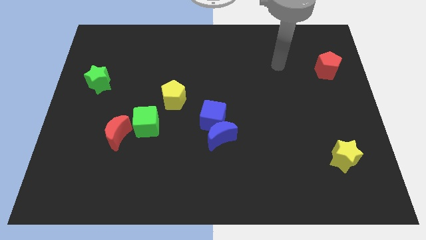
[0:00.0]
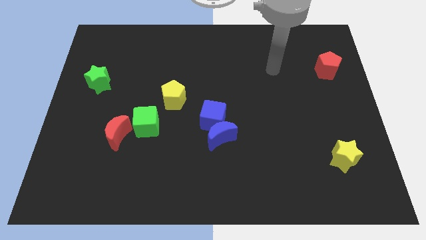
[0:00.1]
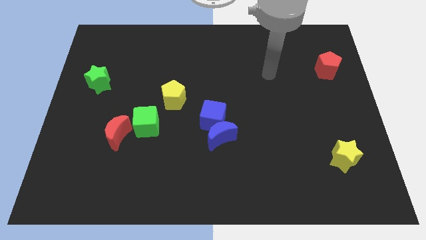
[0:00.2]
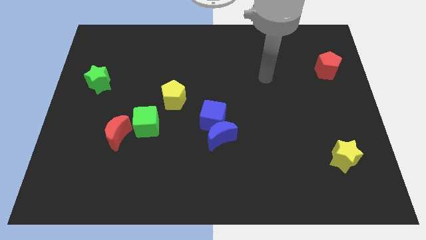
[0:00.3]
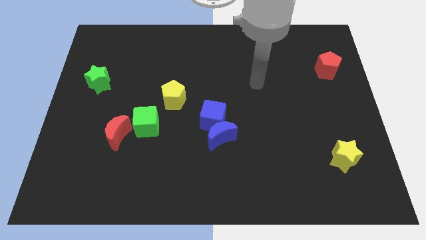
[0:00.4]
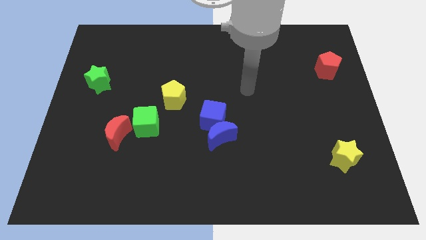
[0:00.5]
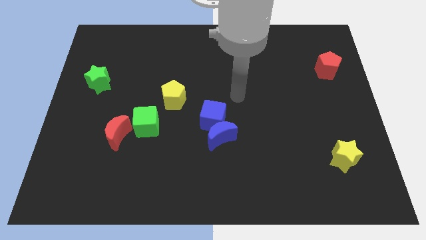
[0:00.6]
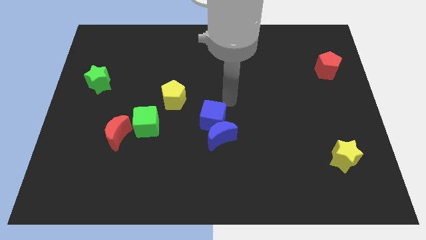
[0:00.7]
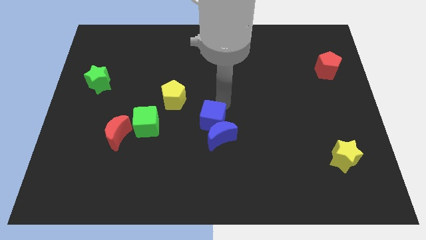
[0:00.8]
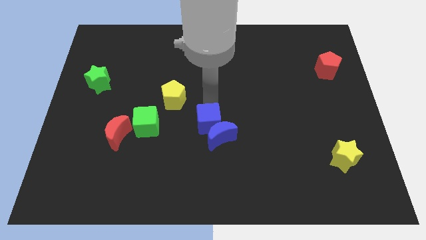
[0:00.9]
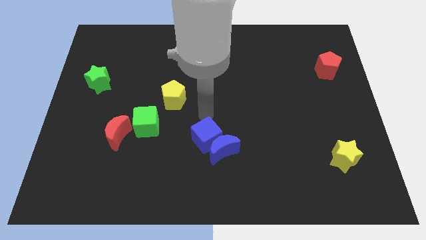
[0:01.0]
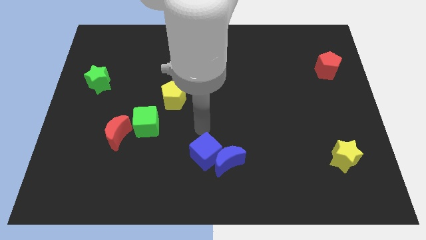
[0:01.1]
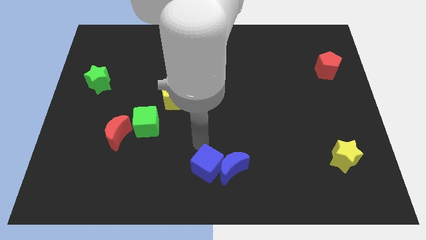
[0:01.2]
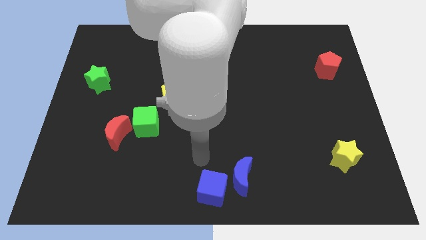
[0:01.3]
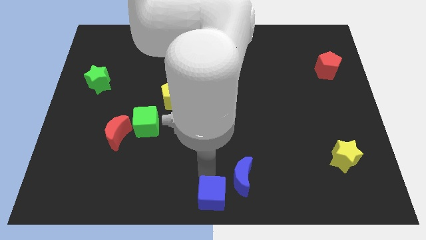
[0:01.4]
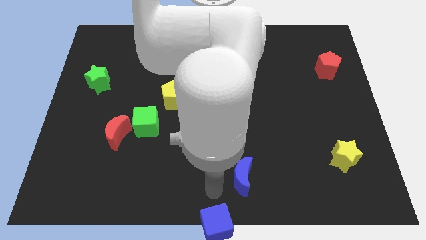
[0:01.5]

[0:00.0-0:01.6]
separate the blue moon from the blue cube

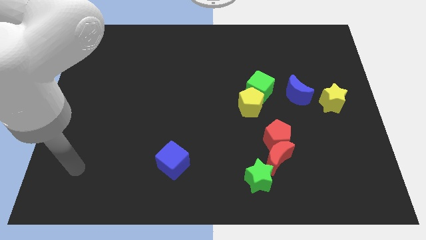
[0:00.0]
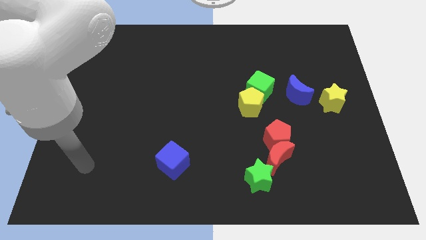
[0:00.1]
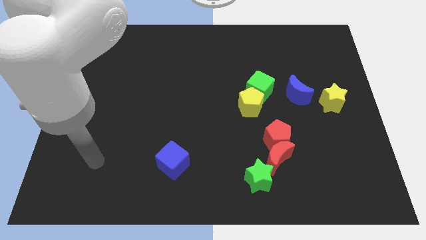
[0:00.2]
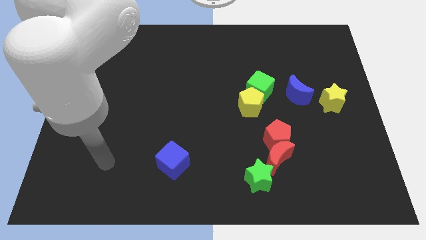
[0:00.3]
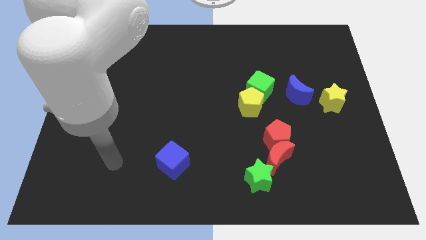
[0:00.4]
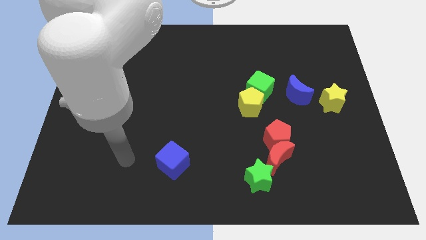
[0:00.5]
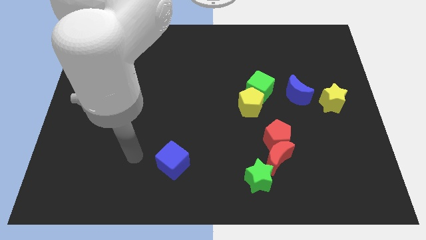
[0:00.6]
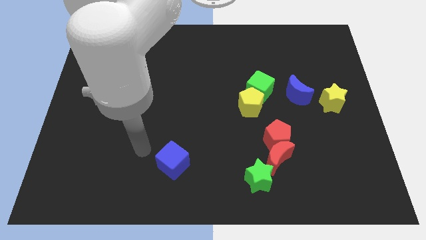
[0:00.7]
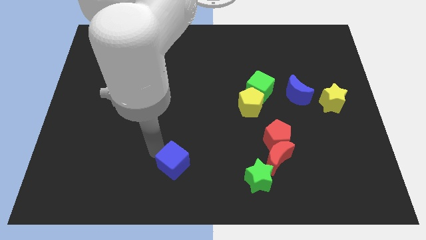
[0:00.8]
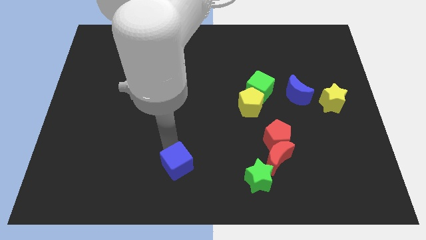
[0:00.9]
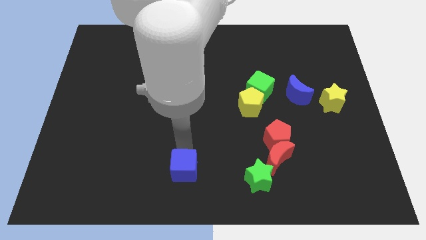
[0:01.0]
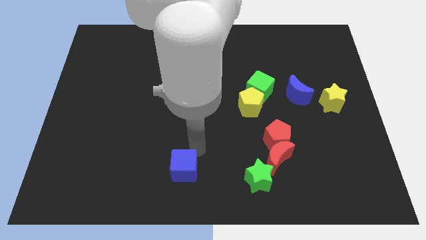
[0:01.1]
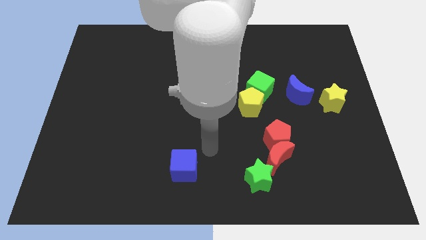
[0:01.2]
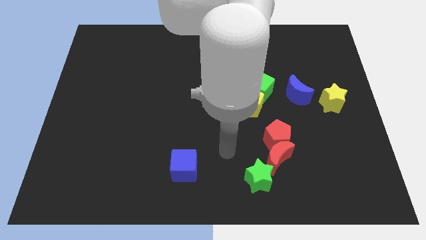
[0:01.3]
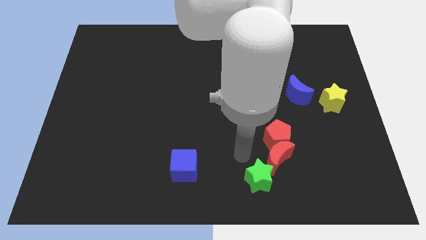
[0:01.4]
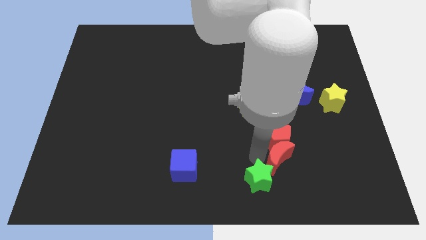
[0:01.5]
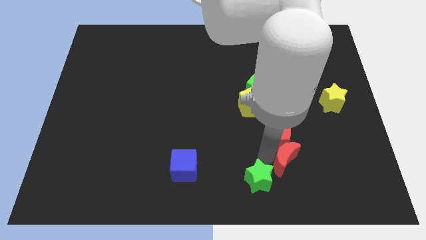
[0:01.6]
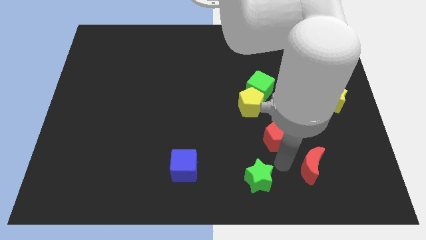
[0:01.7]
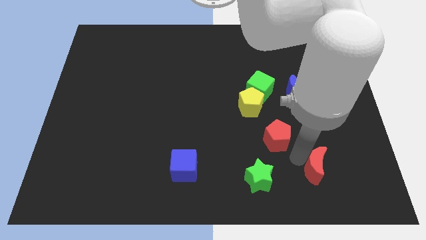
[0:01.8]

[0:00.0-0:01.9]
pull the red pentagon apart from the red moon

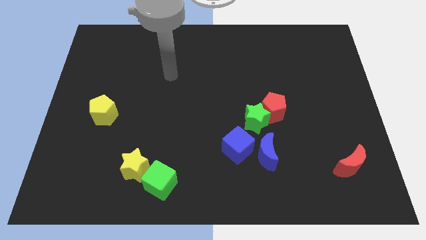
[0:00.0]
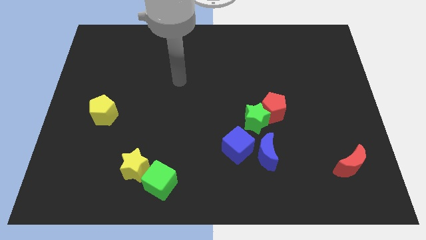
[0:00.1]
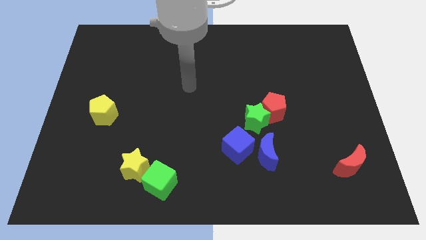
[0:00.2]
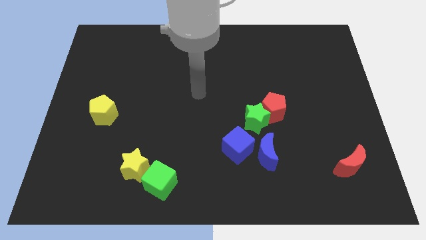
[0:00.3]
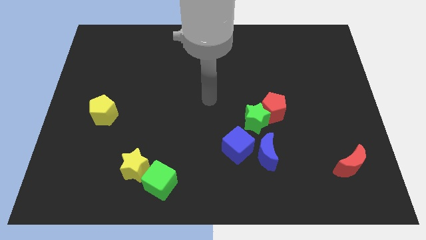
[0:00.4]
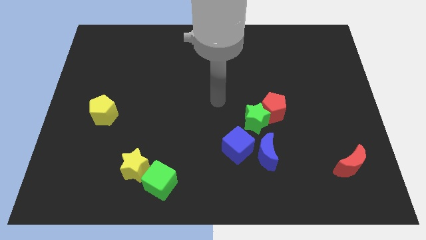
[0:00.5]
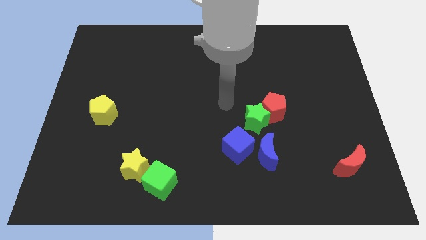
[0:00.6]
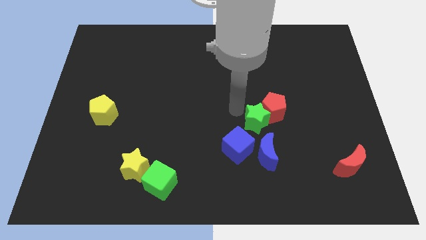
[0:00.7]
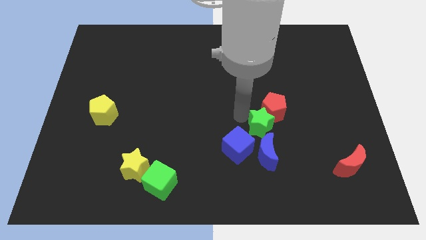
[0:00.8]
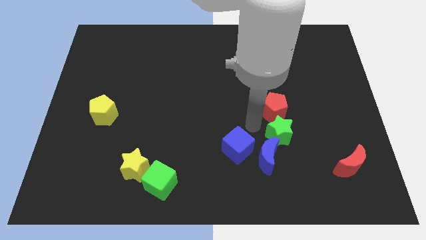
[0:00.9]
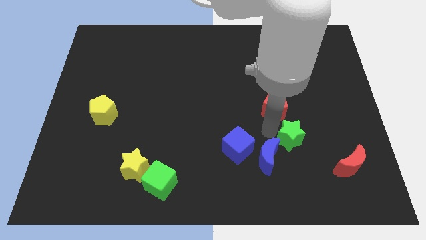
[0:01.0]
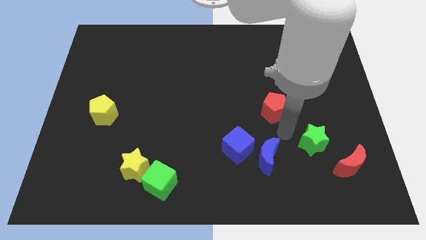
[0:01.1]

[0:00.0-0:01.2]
move the red pentagon away from the green star

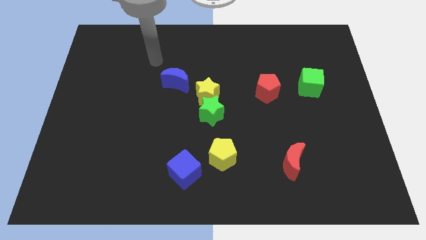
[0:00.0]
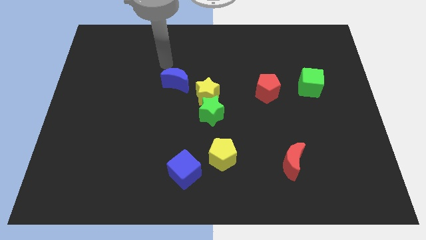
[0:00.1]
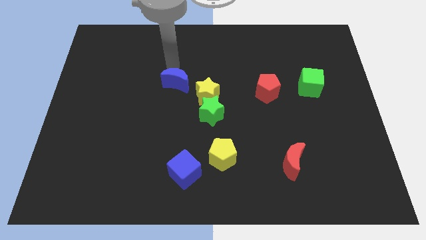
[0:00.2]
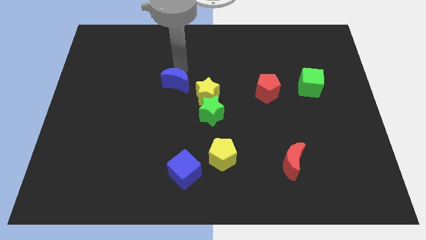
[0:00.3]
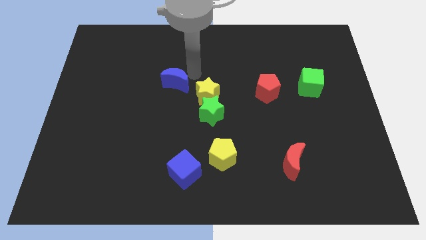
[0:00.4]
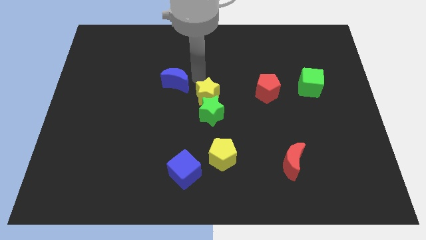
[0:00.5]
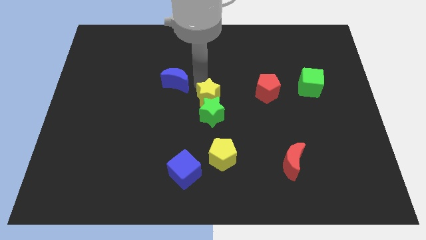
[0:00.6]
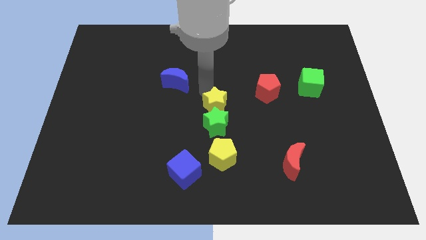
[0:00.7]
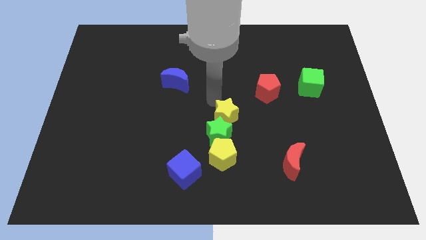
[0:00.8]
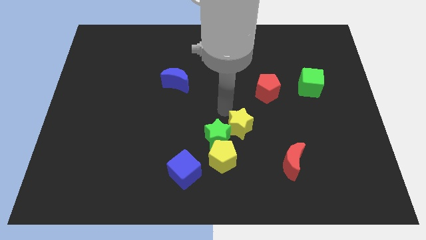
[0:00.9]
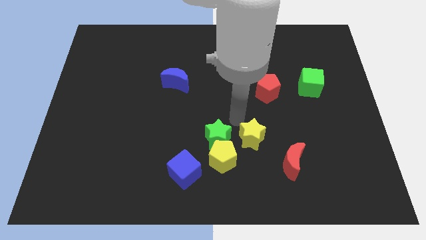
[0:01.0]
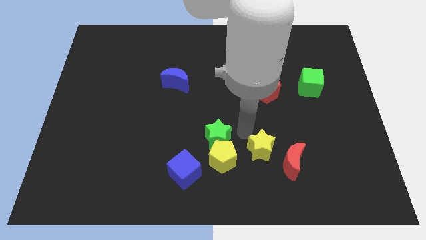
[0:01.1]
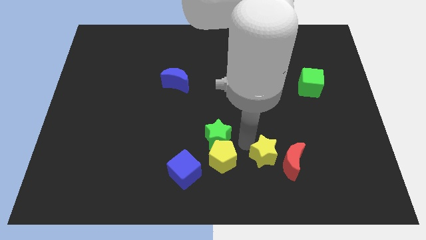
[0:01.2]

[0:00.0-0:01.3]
separate the green star from the yellow star

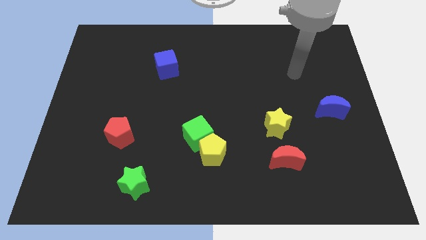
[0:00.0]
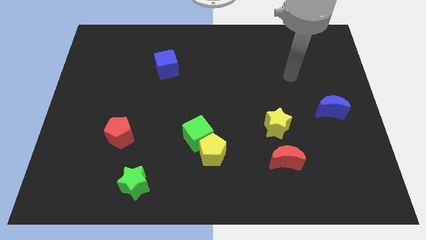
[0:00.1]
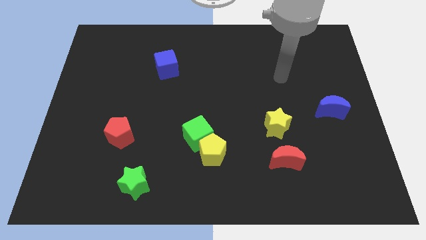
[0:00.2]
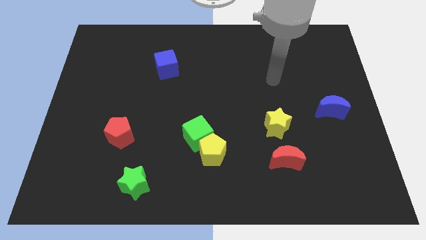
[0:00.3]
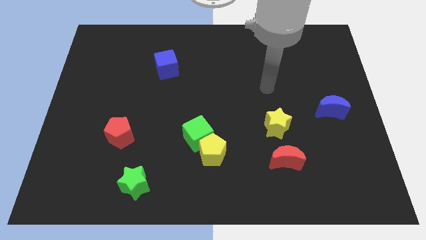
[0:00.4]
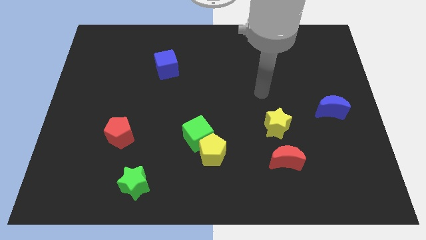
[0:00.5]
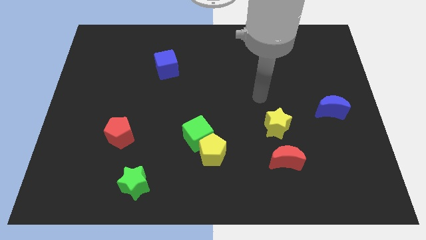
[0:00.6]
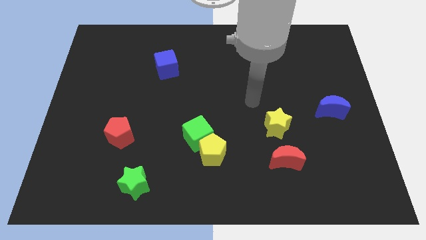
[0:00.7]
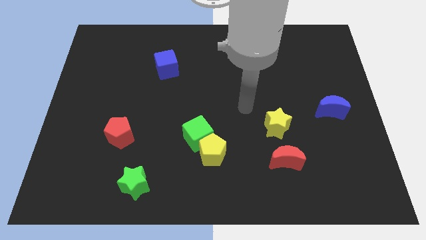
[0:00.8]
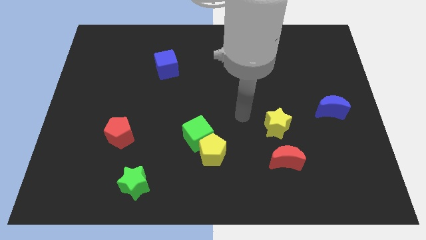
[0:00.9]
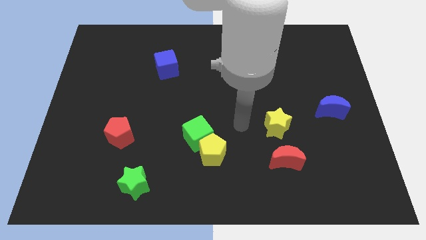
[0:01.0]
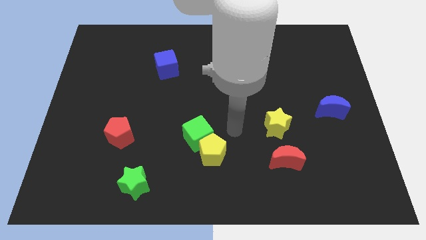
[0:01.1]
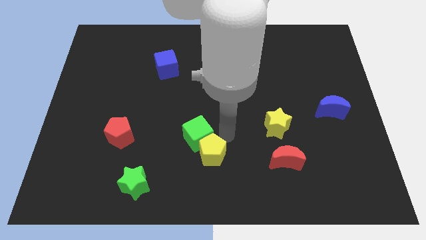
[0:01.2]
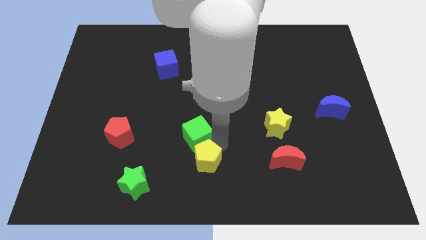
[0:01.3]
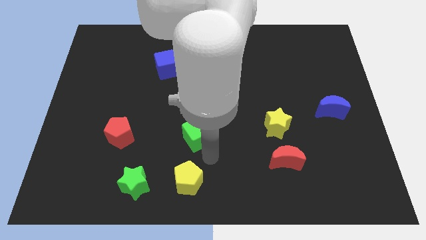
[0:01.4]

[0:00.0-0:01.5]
separate the green cube from the yellow pentagon

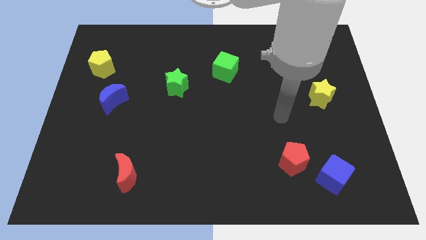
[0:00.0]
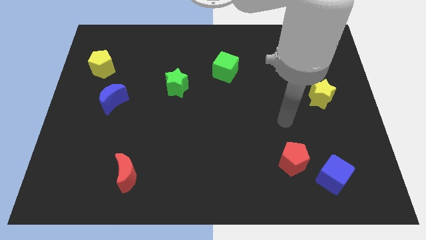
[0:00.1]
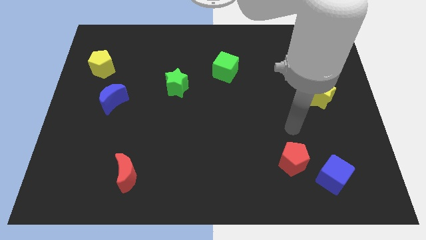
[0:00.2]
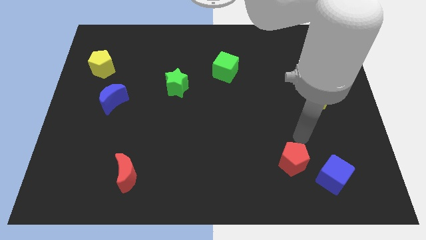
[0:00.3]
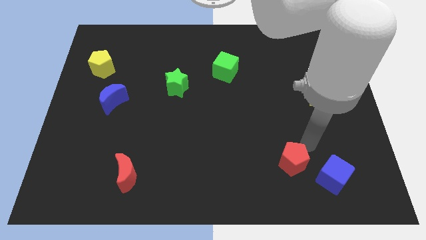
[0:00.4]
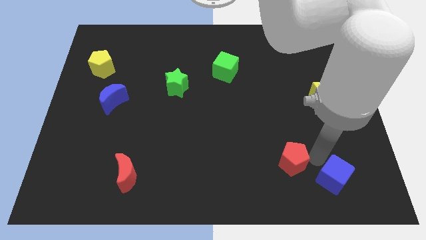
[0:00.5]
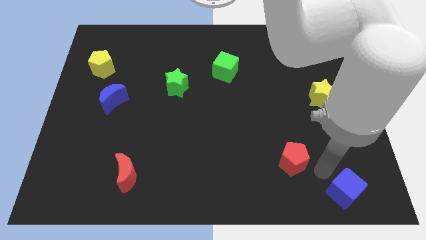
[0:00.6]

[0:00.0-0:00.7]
pull the red pentagon apart from the blue cube

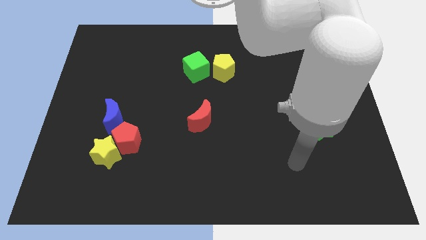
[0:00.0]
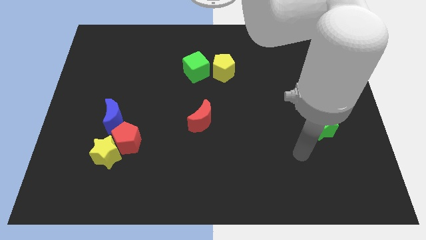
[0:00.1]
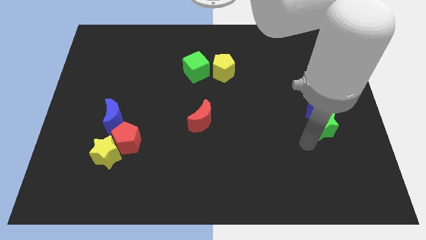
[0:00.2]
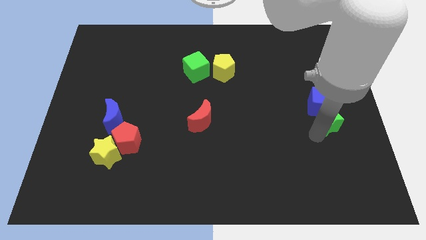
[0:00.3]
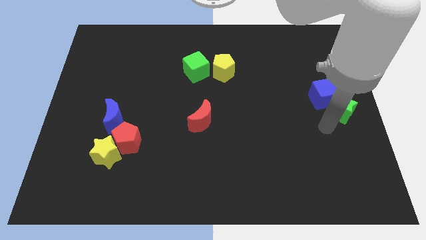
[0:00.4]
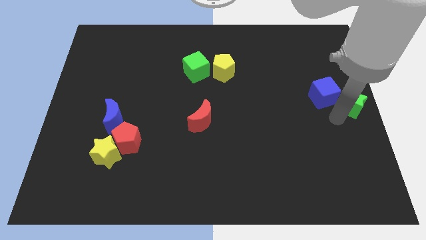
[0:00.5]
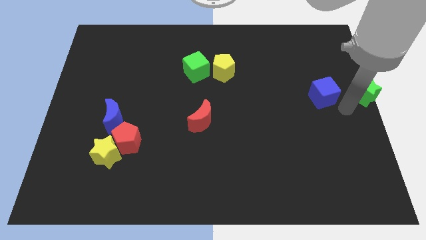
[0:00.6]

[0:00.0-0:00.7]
separate the blue cube from the green star

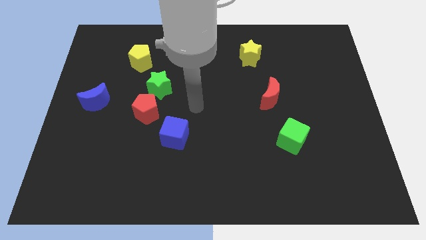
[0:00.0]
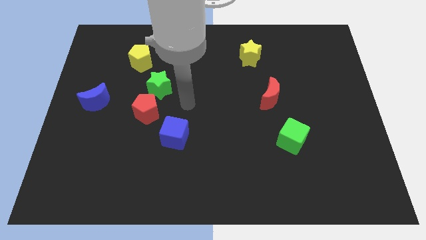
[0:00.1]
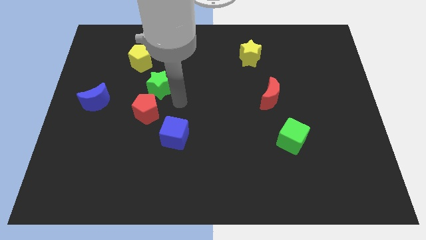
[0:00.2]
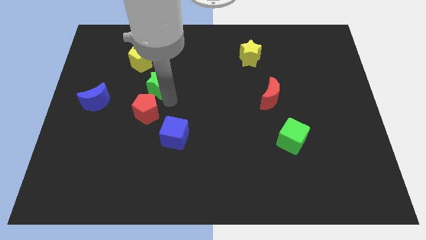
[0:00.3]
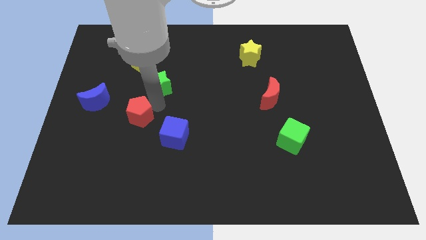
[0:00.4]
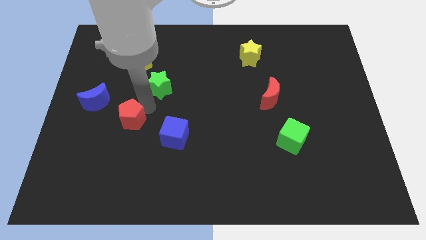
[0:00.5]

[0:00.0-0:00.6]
separate the green star from the red pentagon

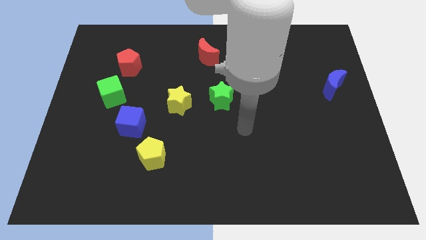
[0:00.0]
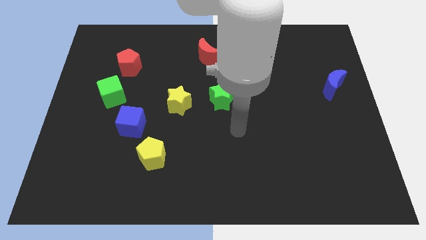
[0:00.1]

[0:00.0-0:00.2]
move the blue cube away from the yellow pentagon
